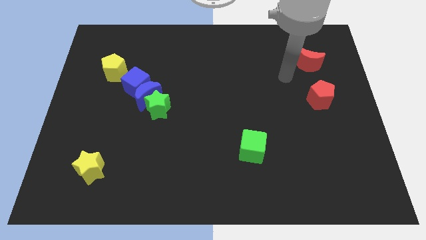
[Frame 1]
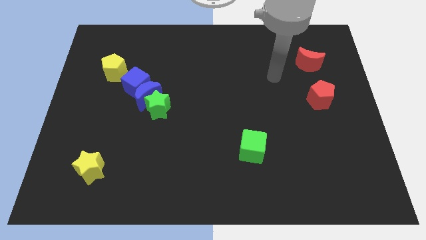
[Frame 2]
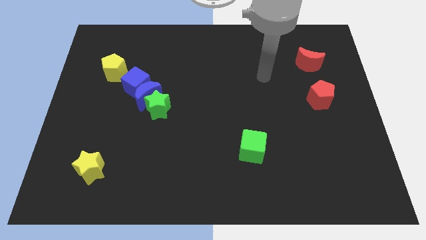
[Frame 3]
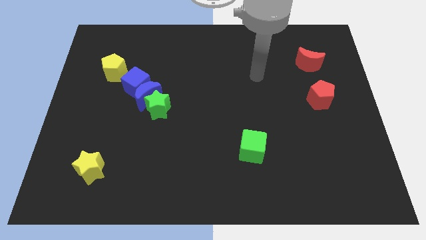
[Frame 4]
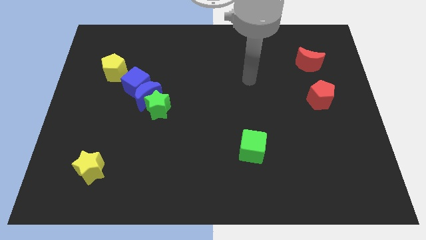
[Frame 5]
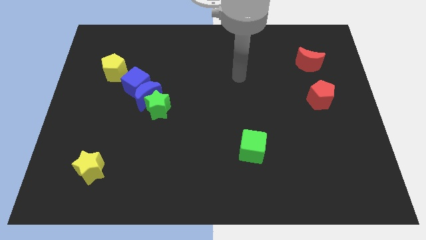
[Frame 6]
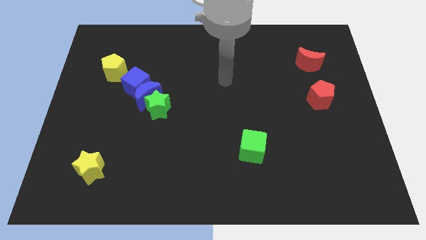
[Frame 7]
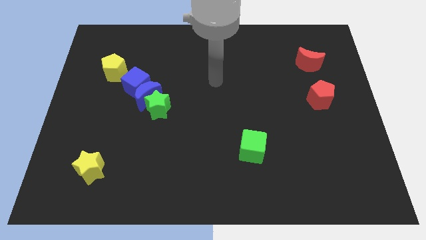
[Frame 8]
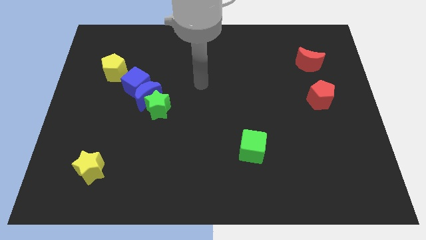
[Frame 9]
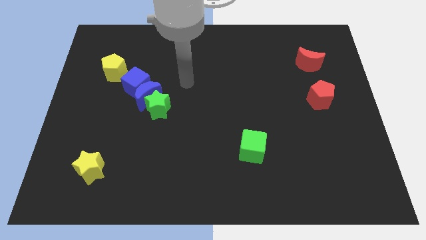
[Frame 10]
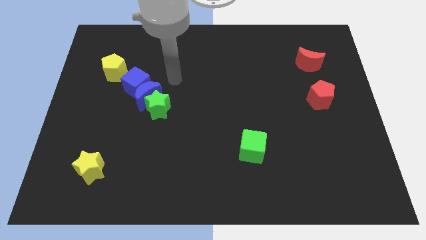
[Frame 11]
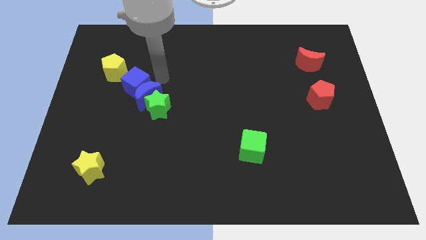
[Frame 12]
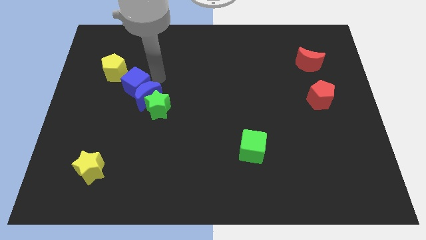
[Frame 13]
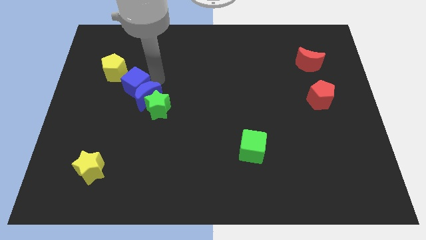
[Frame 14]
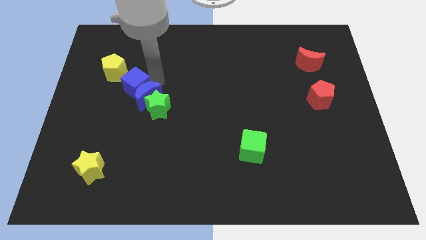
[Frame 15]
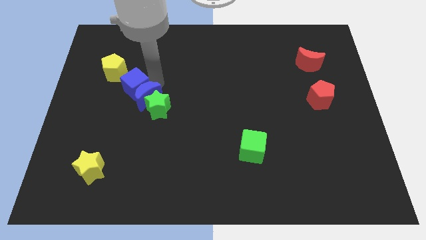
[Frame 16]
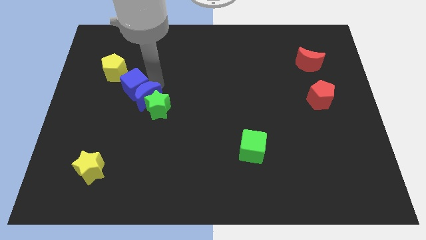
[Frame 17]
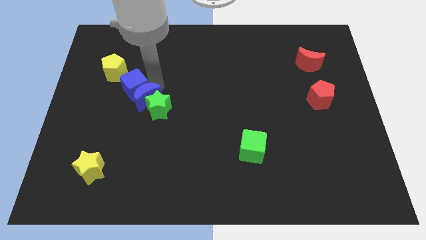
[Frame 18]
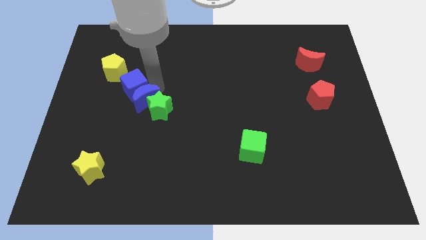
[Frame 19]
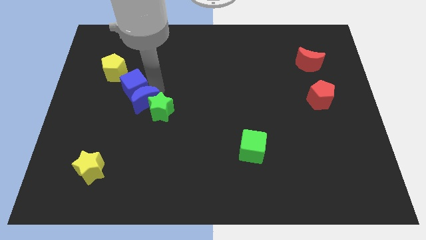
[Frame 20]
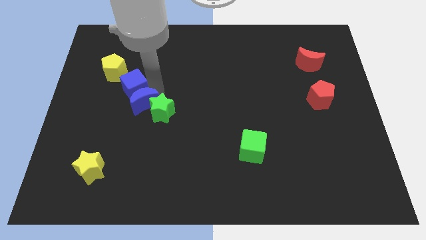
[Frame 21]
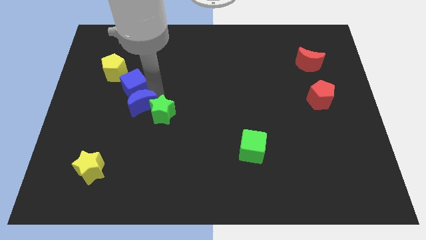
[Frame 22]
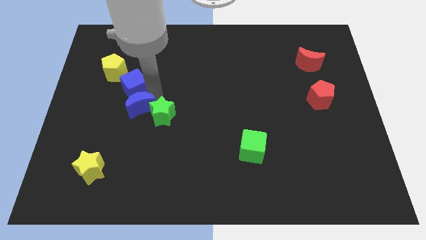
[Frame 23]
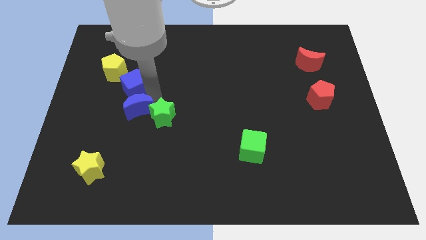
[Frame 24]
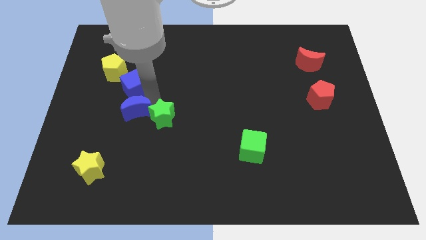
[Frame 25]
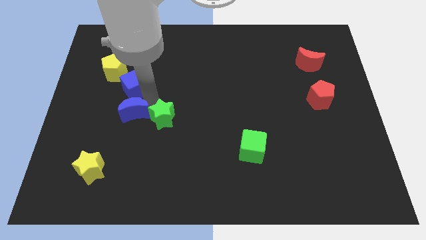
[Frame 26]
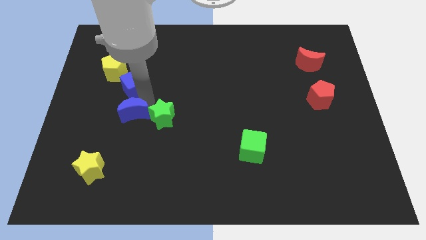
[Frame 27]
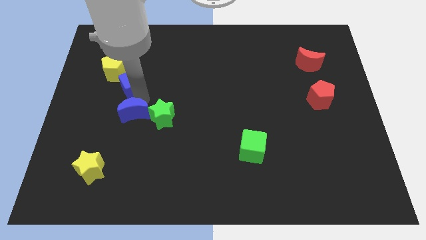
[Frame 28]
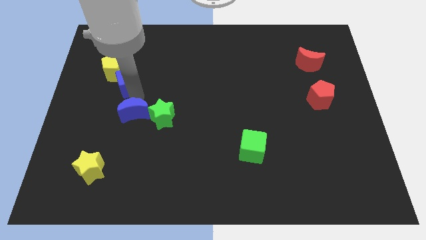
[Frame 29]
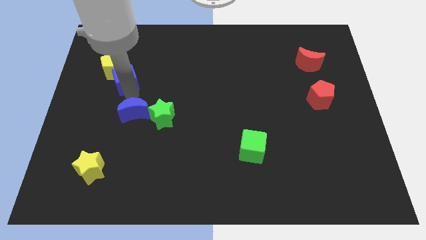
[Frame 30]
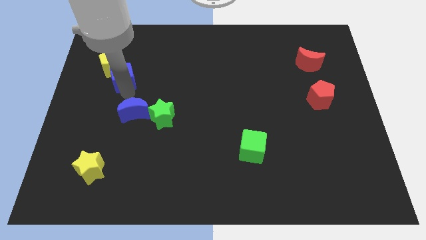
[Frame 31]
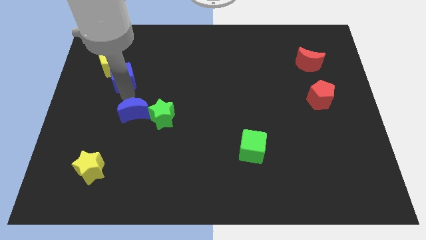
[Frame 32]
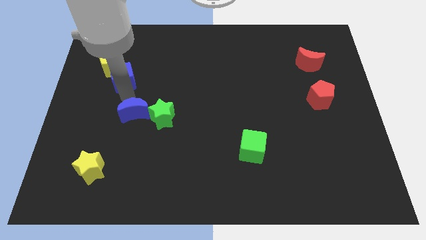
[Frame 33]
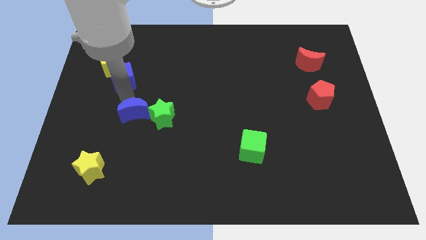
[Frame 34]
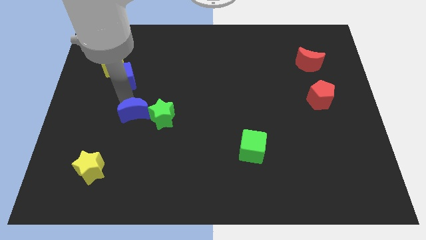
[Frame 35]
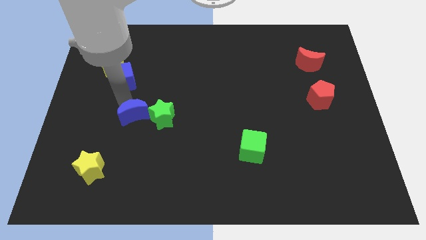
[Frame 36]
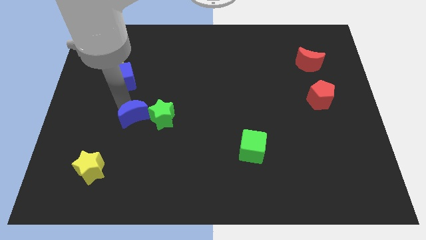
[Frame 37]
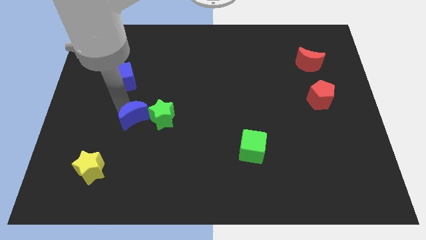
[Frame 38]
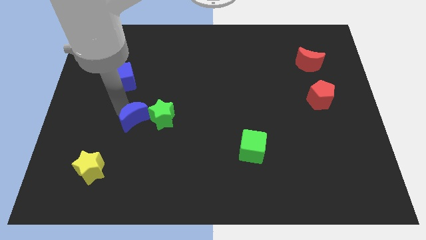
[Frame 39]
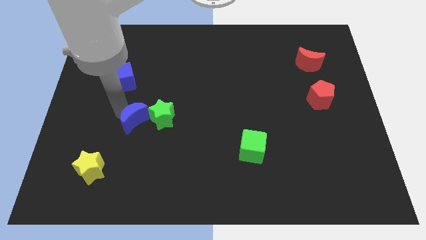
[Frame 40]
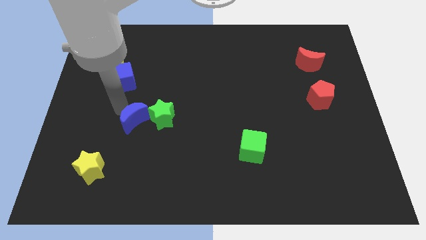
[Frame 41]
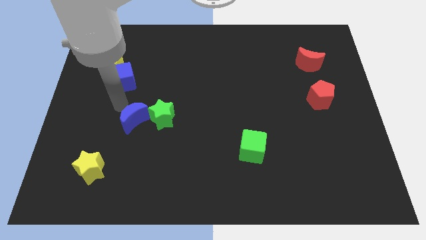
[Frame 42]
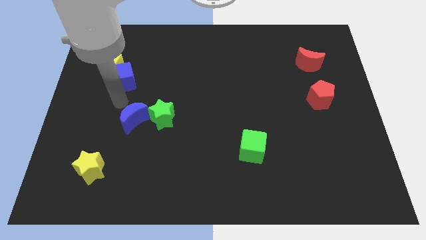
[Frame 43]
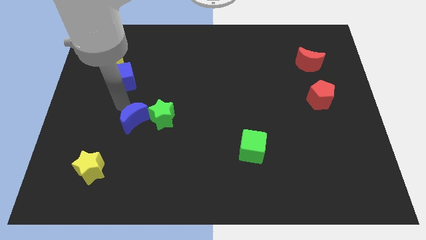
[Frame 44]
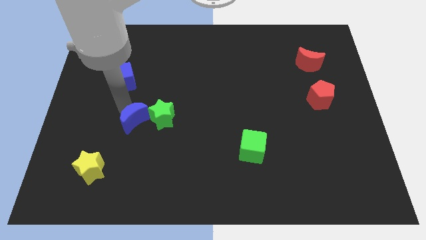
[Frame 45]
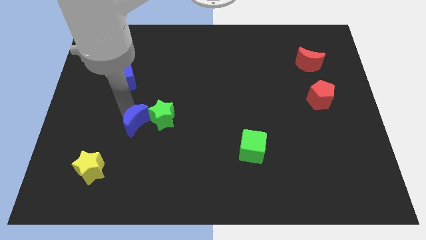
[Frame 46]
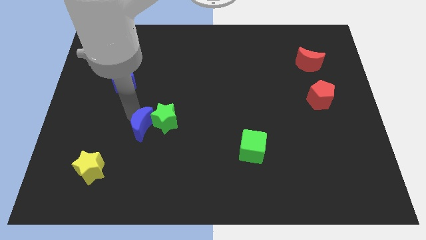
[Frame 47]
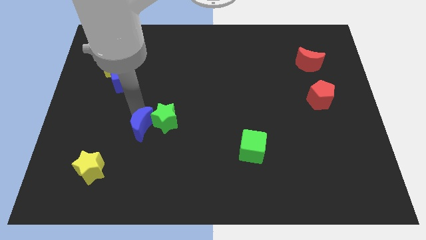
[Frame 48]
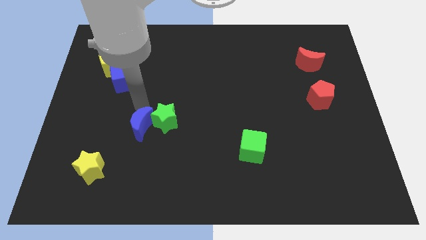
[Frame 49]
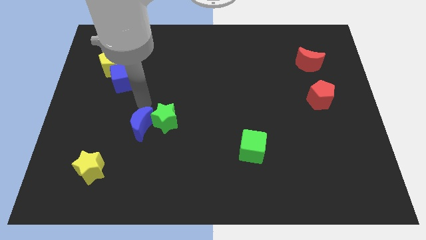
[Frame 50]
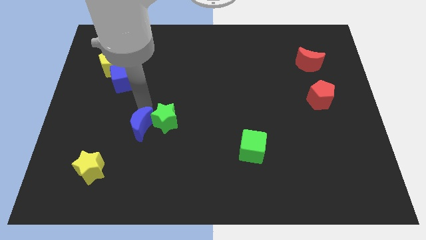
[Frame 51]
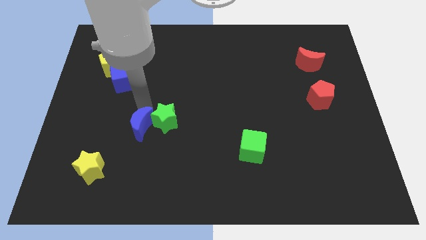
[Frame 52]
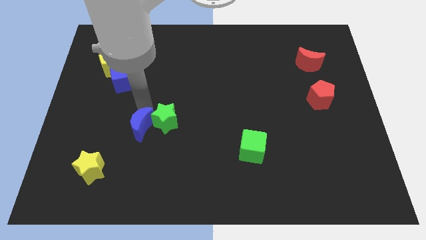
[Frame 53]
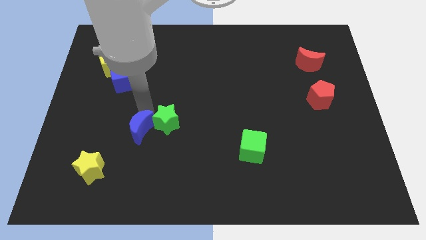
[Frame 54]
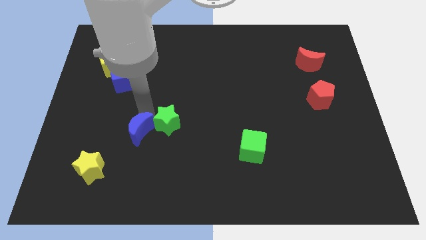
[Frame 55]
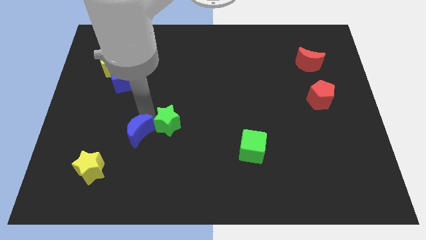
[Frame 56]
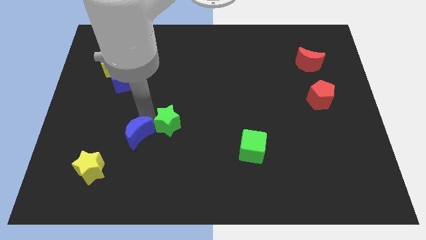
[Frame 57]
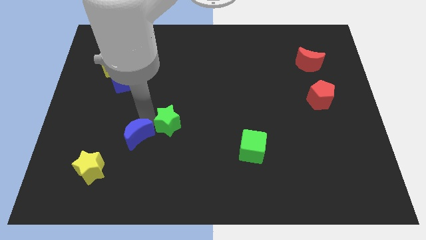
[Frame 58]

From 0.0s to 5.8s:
separate the blue moon from the green star and blue cube

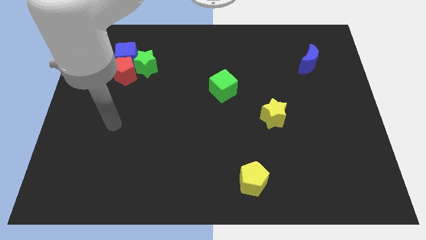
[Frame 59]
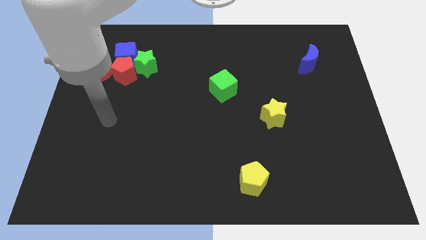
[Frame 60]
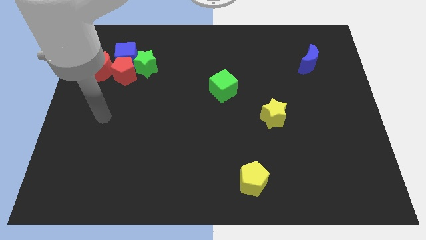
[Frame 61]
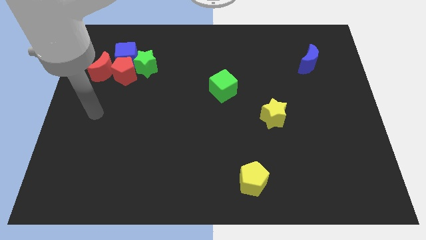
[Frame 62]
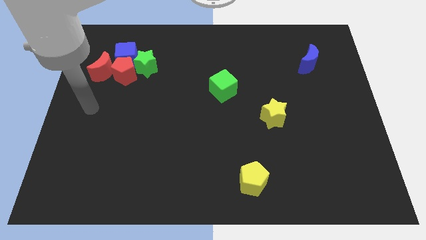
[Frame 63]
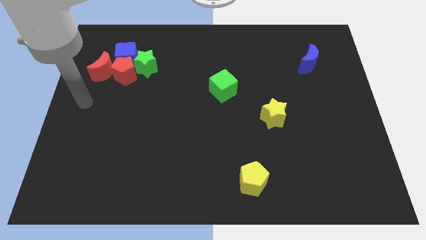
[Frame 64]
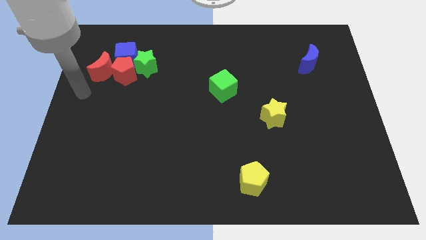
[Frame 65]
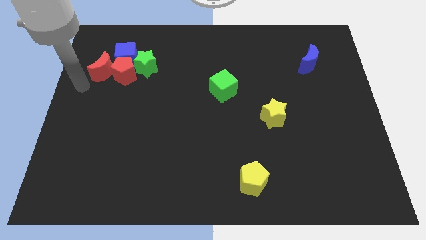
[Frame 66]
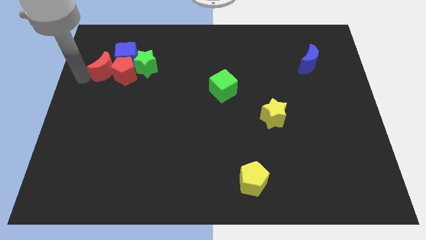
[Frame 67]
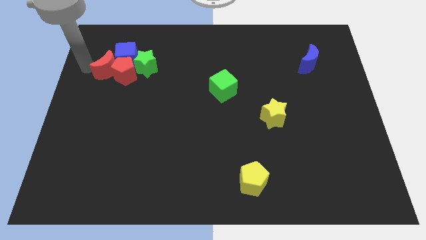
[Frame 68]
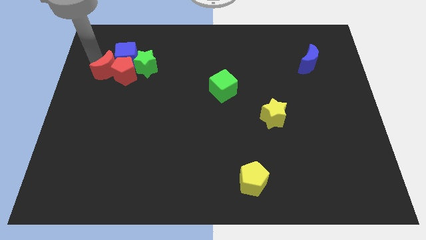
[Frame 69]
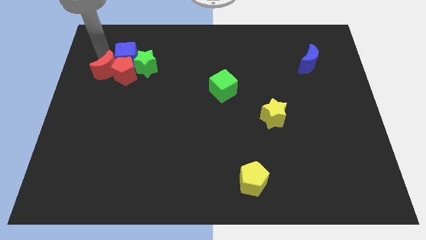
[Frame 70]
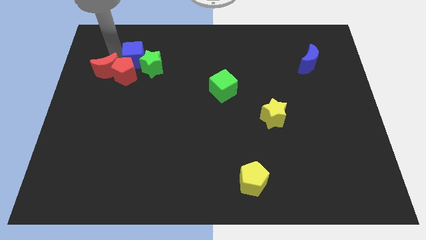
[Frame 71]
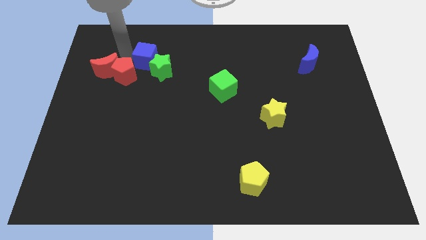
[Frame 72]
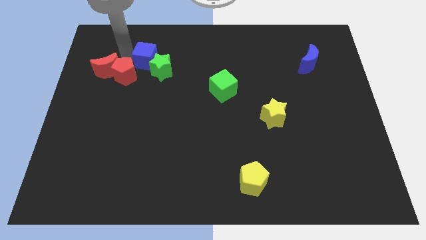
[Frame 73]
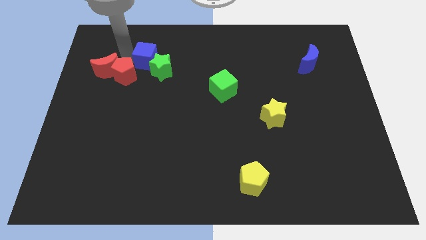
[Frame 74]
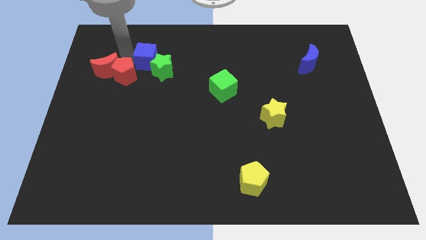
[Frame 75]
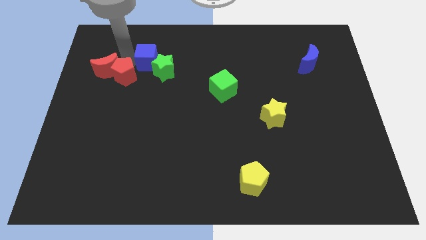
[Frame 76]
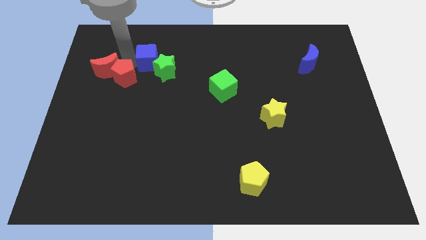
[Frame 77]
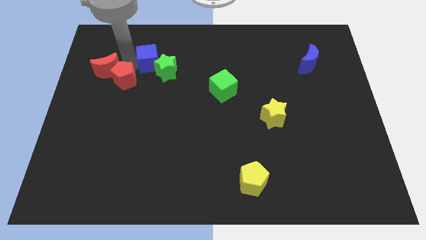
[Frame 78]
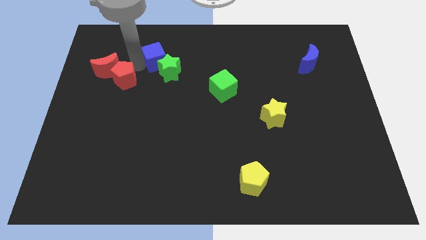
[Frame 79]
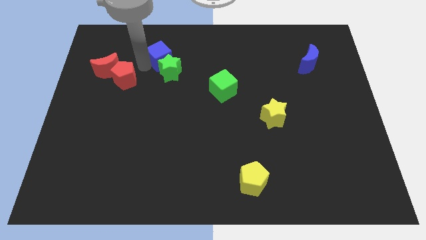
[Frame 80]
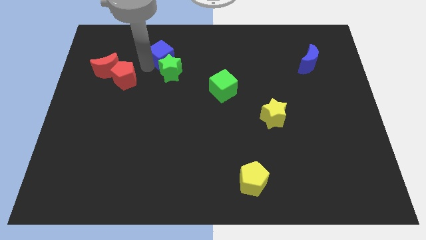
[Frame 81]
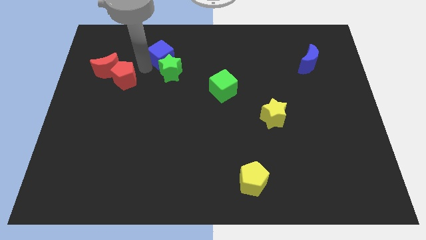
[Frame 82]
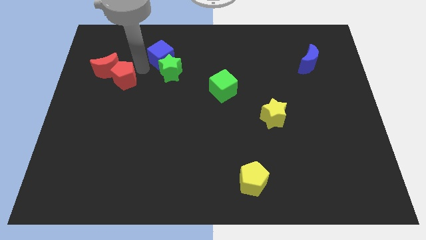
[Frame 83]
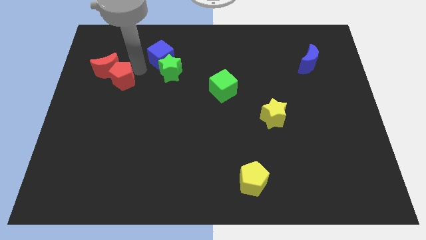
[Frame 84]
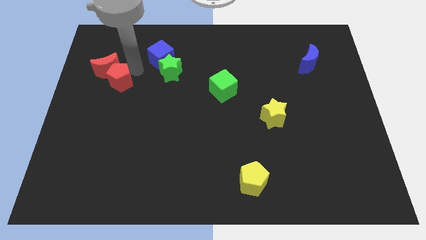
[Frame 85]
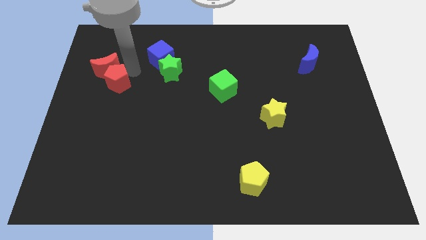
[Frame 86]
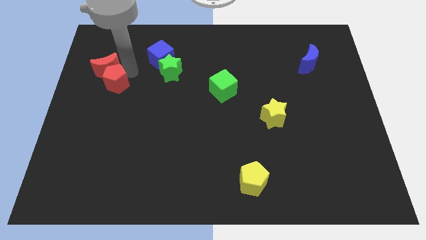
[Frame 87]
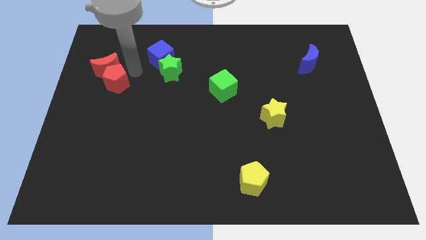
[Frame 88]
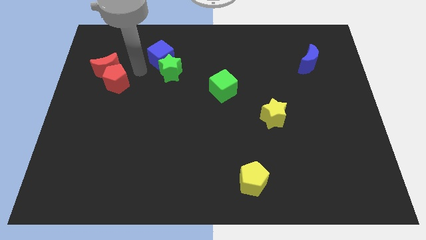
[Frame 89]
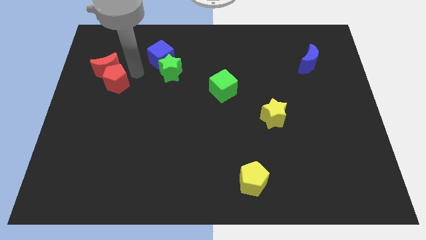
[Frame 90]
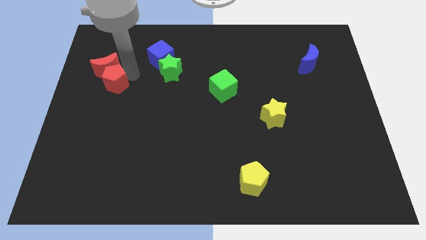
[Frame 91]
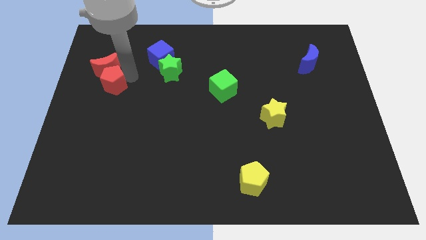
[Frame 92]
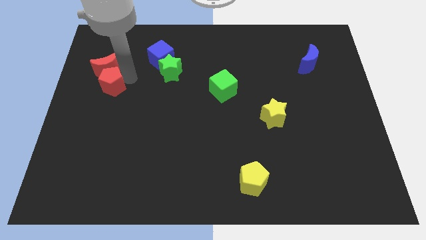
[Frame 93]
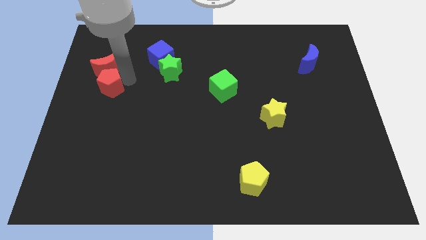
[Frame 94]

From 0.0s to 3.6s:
move the red pentagon away from the clump
